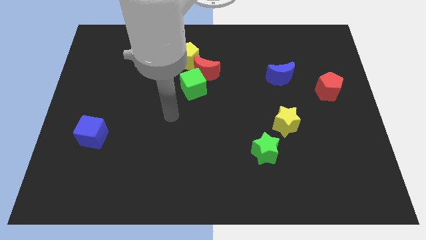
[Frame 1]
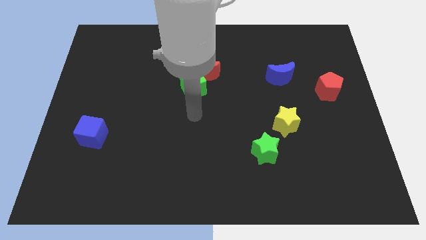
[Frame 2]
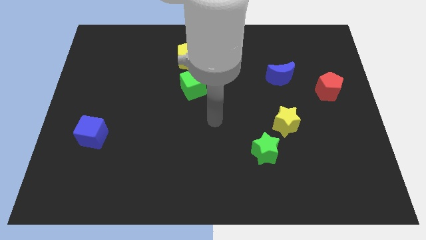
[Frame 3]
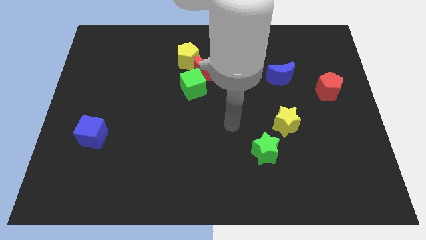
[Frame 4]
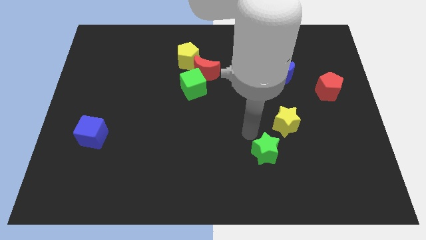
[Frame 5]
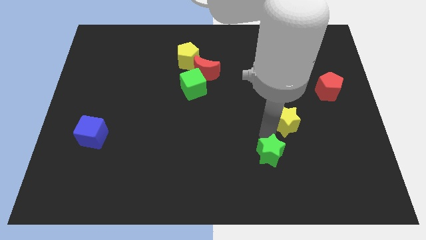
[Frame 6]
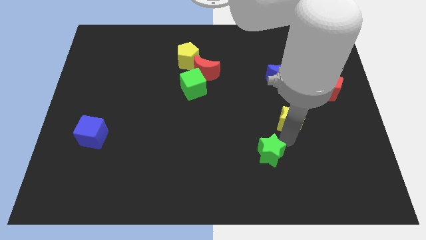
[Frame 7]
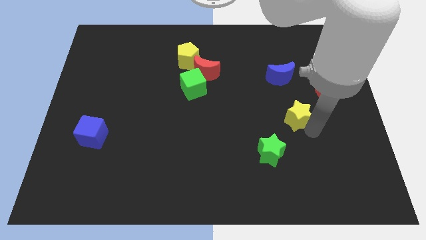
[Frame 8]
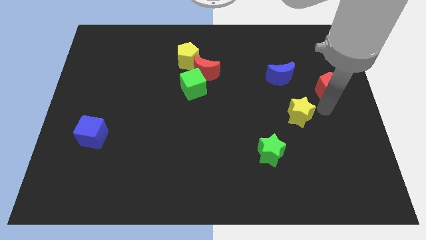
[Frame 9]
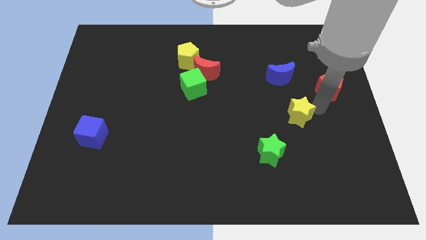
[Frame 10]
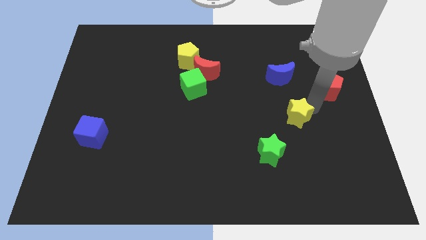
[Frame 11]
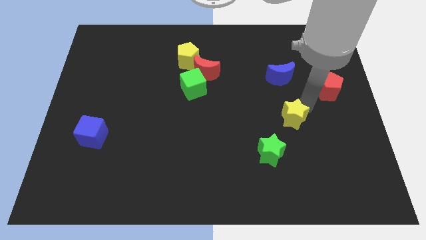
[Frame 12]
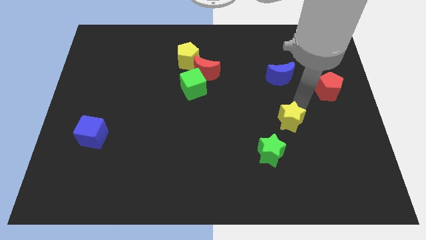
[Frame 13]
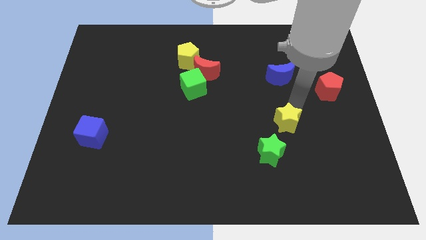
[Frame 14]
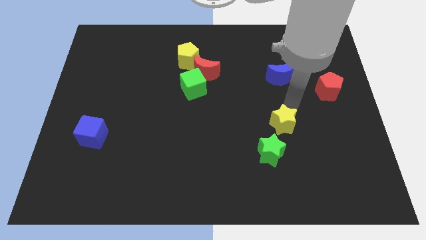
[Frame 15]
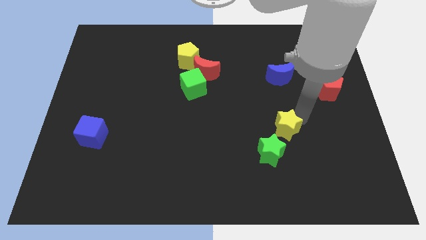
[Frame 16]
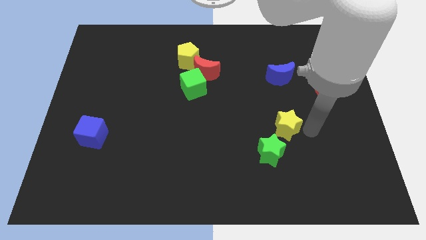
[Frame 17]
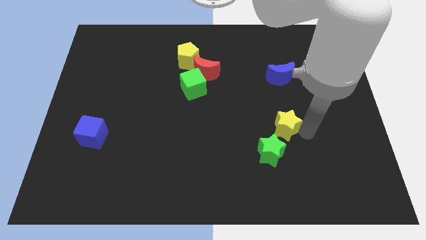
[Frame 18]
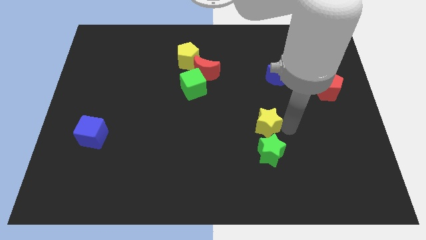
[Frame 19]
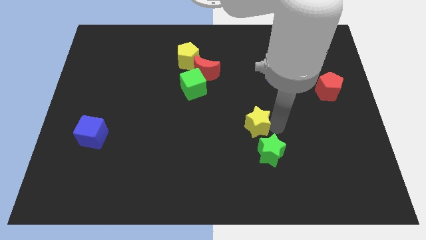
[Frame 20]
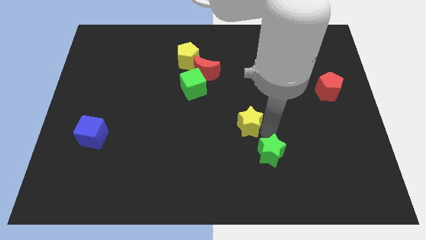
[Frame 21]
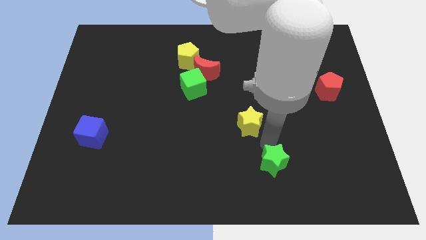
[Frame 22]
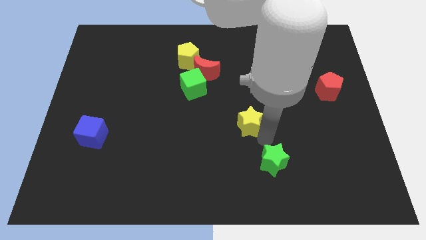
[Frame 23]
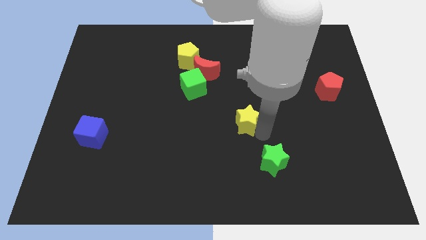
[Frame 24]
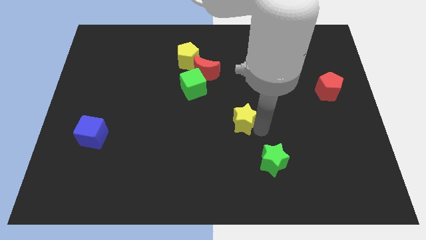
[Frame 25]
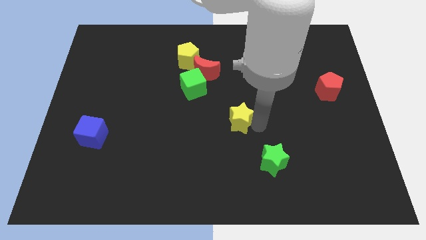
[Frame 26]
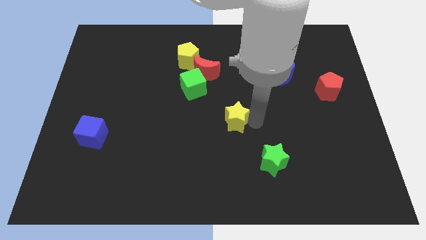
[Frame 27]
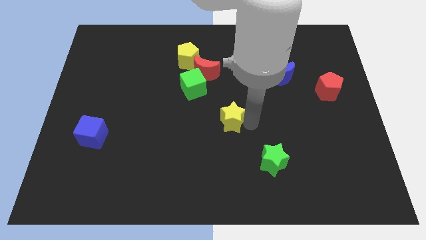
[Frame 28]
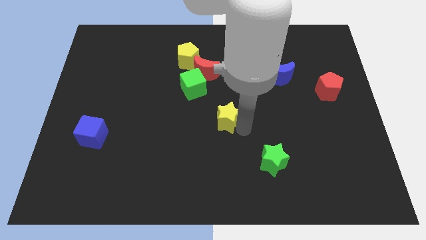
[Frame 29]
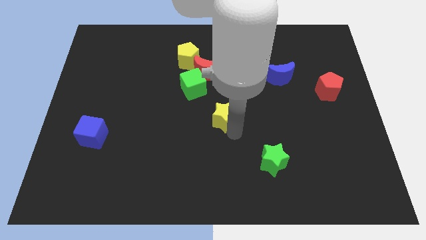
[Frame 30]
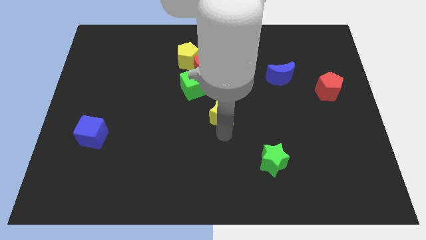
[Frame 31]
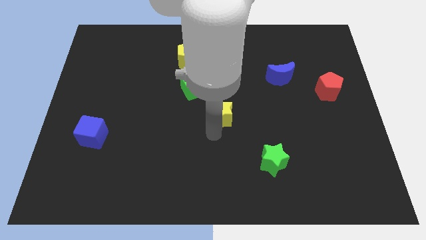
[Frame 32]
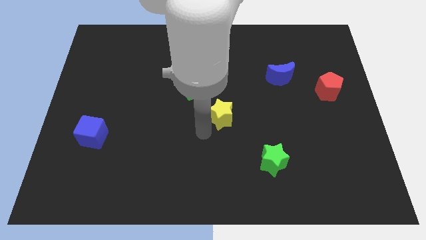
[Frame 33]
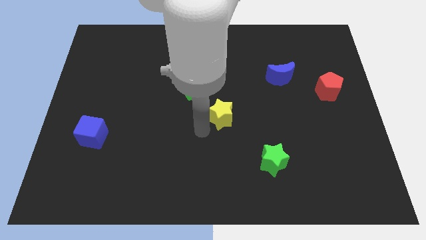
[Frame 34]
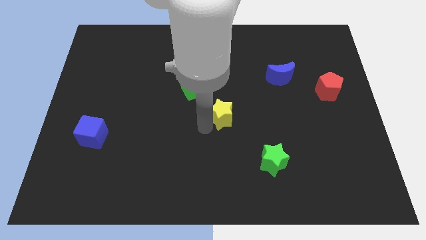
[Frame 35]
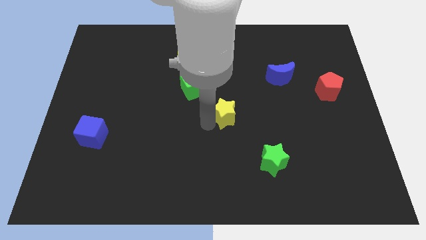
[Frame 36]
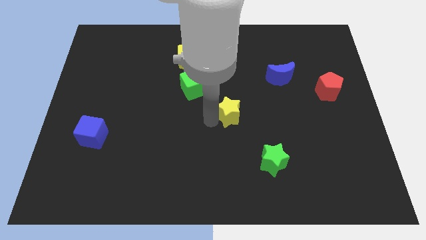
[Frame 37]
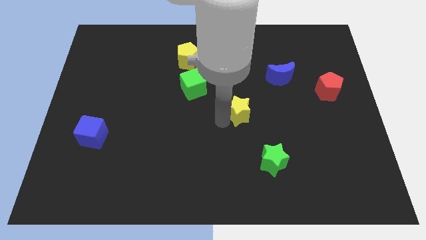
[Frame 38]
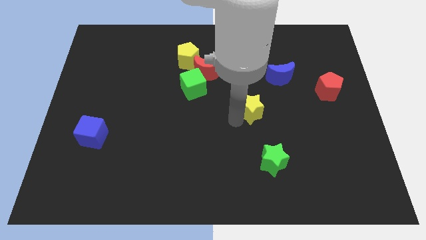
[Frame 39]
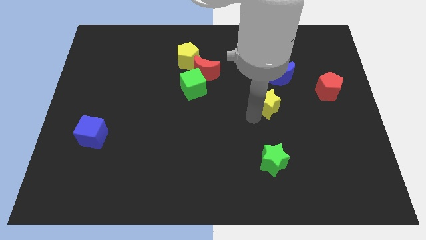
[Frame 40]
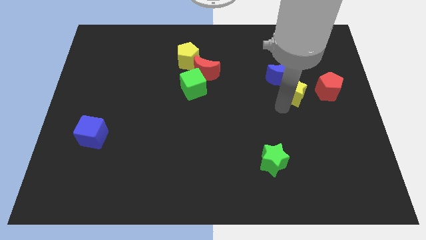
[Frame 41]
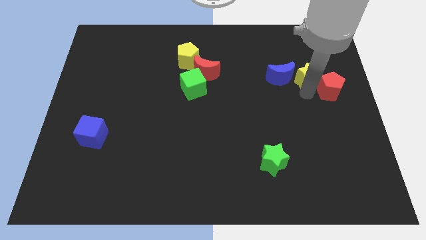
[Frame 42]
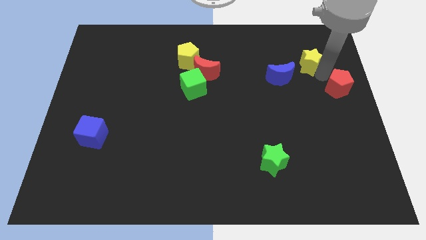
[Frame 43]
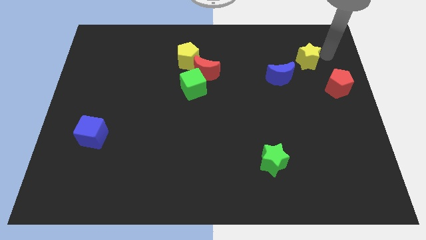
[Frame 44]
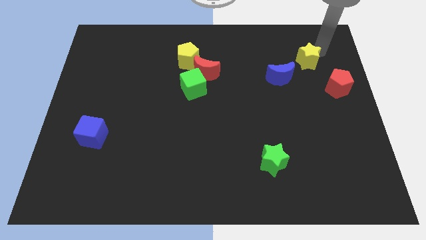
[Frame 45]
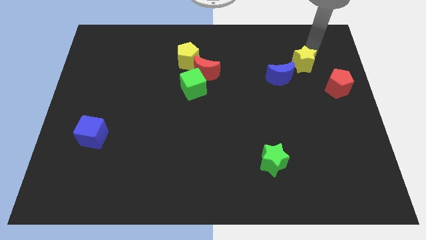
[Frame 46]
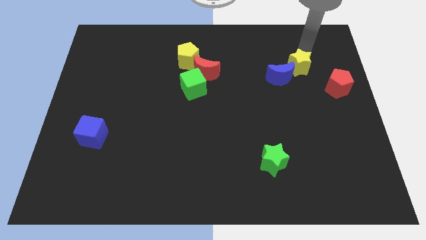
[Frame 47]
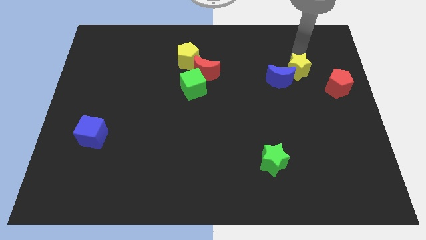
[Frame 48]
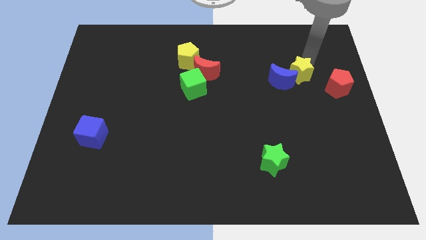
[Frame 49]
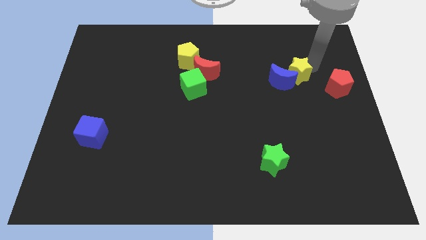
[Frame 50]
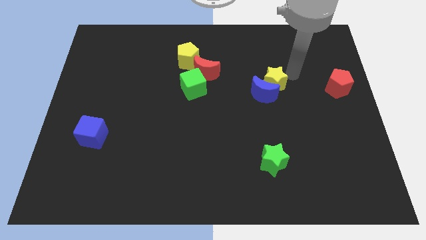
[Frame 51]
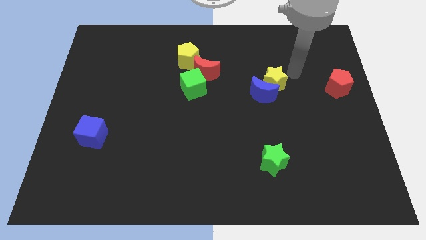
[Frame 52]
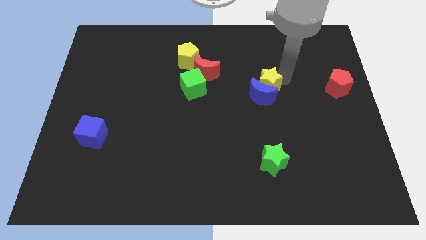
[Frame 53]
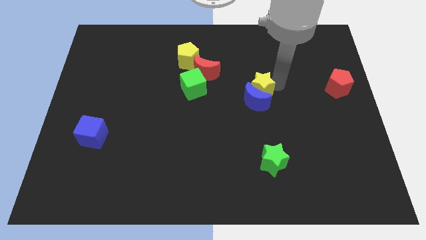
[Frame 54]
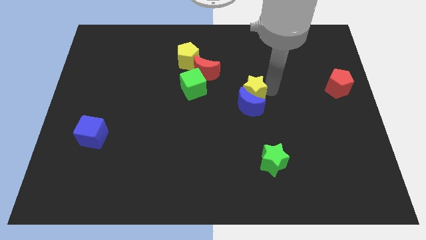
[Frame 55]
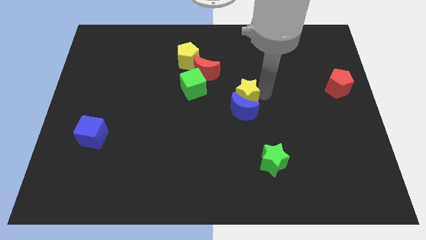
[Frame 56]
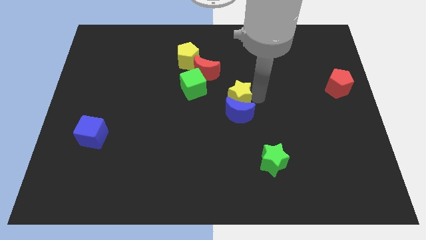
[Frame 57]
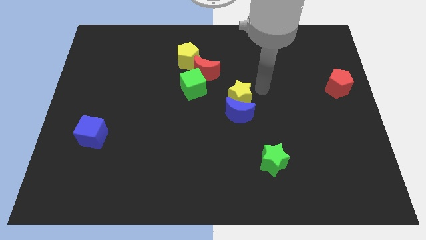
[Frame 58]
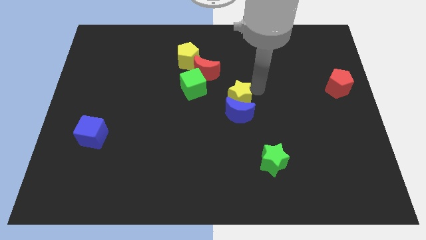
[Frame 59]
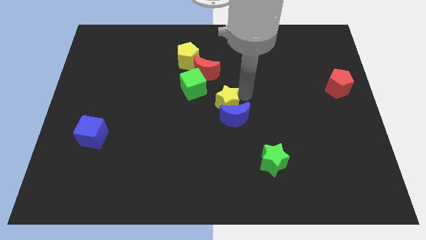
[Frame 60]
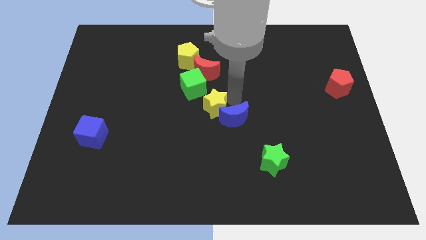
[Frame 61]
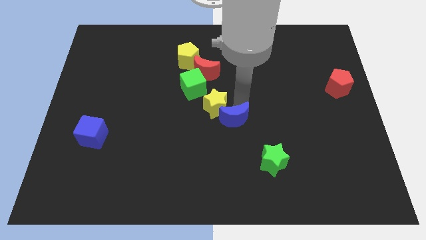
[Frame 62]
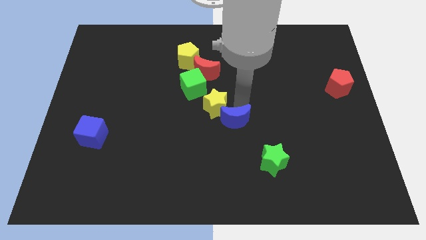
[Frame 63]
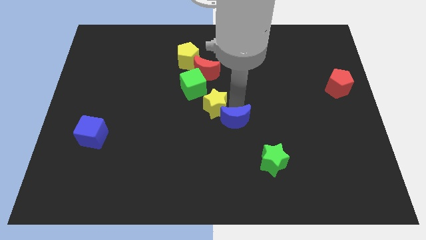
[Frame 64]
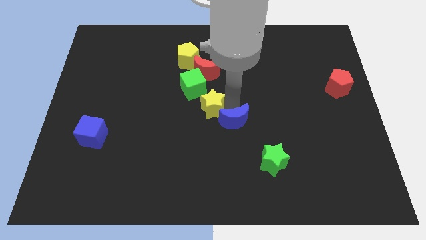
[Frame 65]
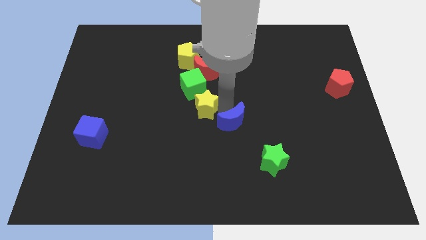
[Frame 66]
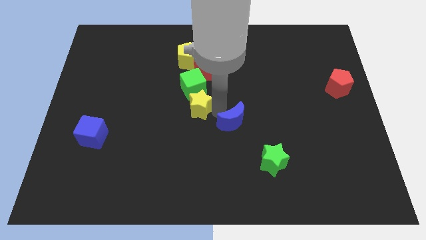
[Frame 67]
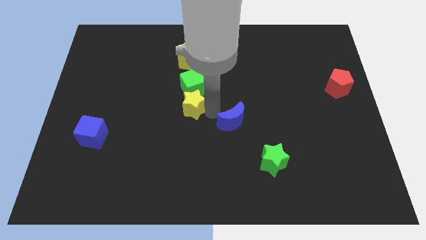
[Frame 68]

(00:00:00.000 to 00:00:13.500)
push the yellow star below the yellow pentagon
